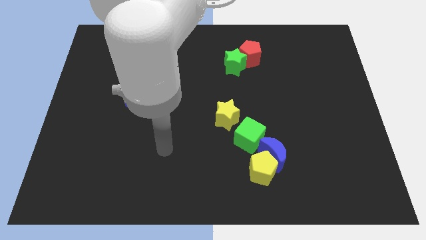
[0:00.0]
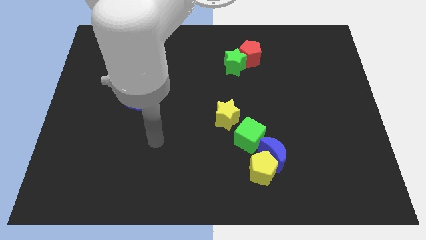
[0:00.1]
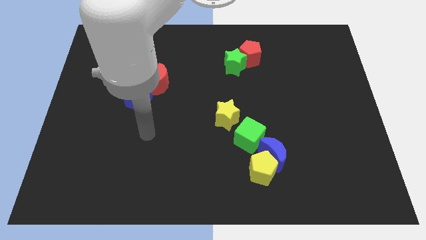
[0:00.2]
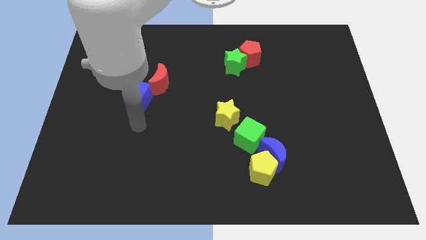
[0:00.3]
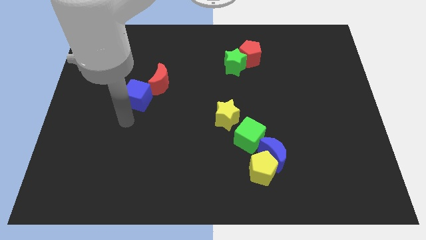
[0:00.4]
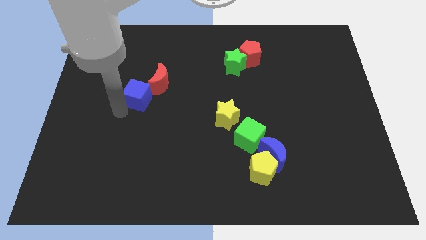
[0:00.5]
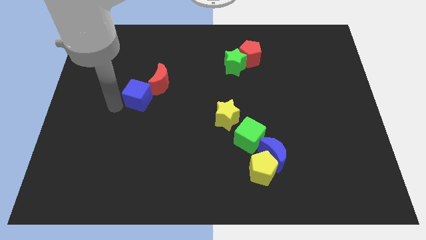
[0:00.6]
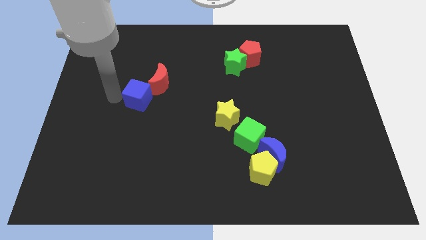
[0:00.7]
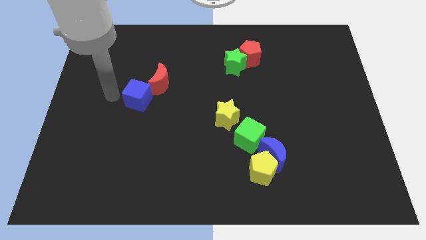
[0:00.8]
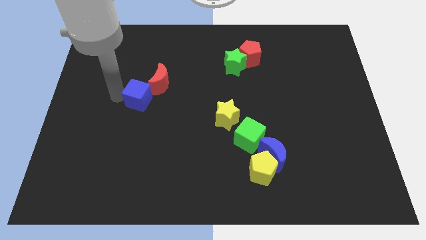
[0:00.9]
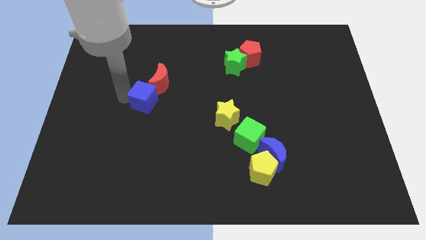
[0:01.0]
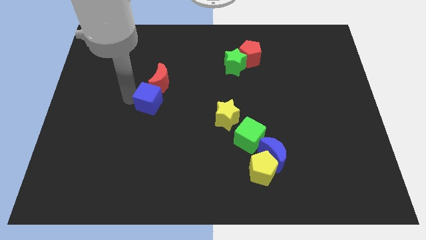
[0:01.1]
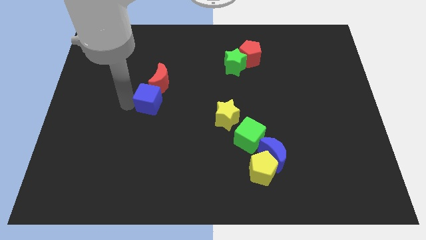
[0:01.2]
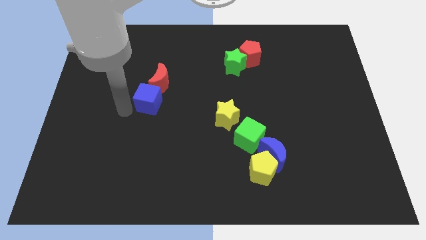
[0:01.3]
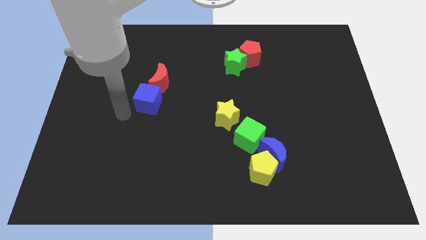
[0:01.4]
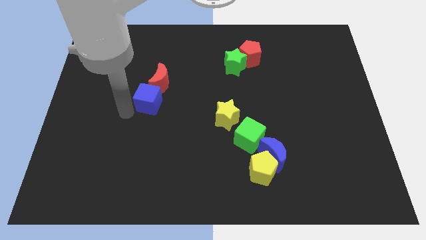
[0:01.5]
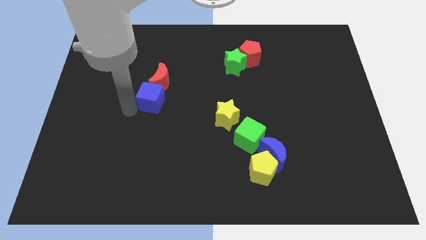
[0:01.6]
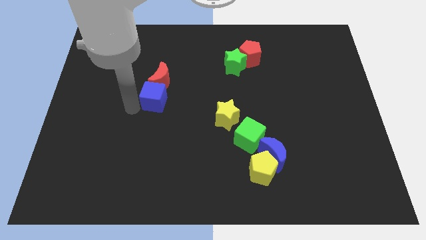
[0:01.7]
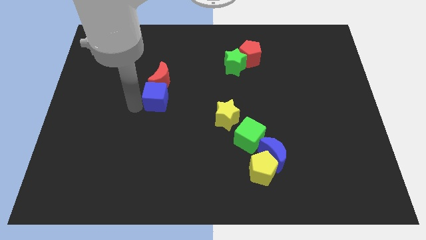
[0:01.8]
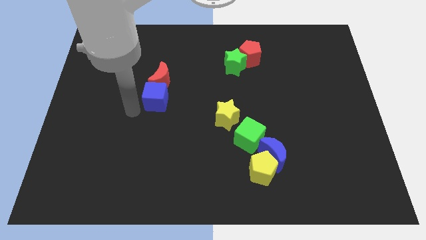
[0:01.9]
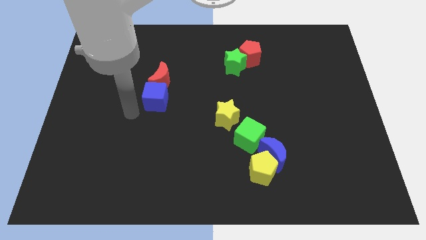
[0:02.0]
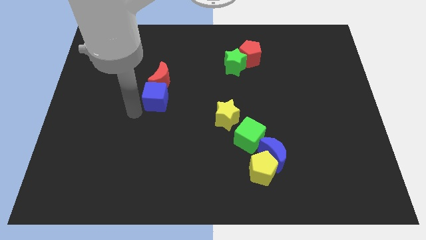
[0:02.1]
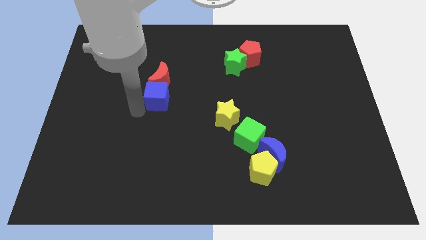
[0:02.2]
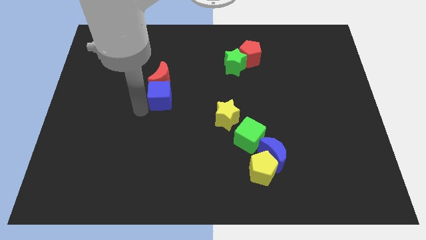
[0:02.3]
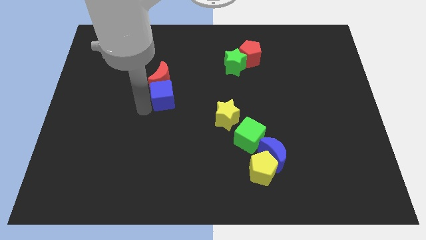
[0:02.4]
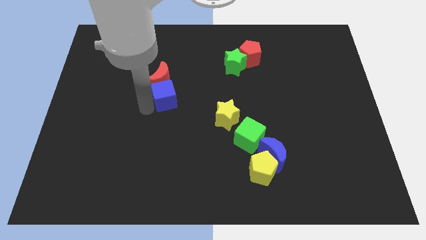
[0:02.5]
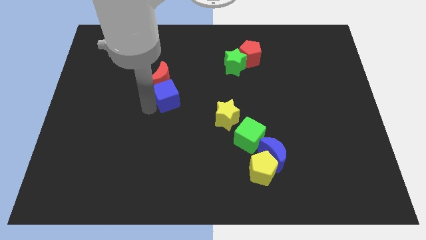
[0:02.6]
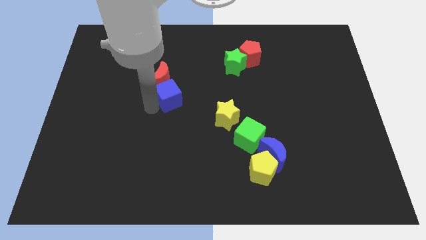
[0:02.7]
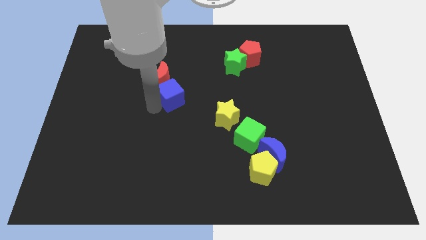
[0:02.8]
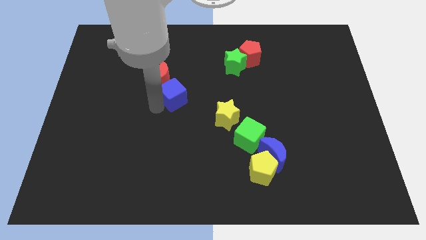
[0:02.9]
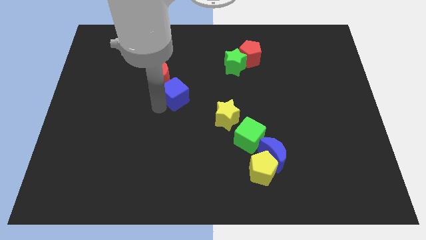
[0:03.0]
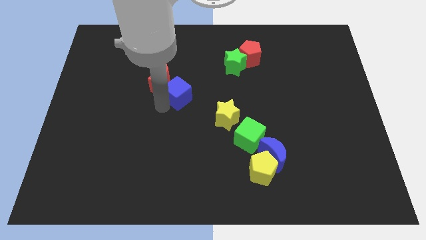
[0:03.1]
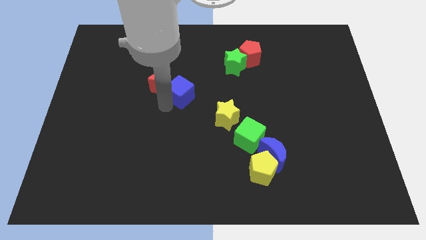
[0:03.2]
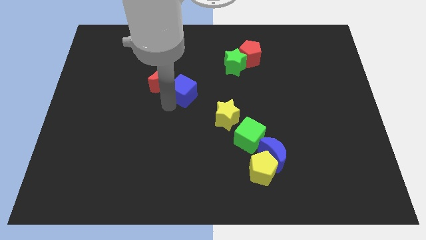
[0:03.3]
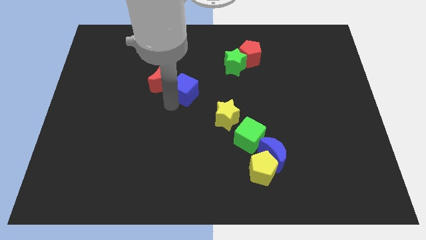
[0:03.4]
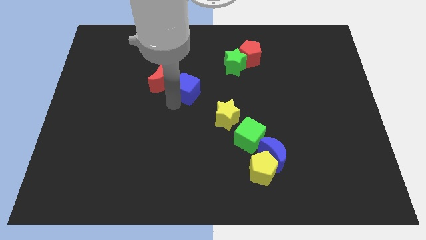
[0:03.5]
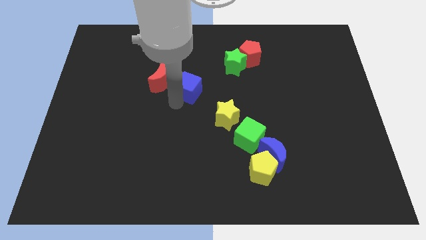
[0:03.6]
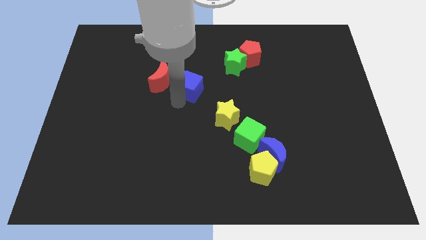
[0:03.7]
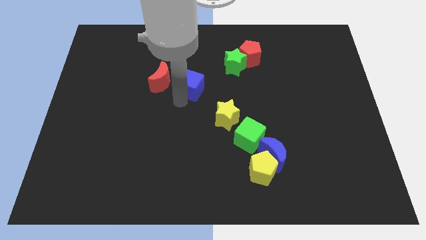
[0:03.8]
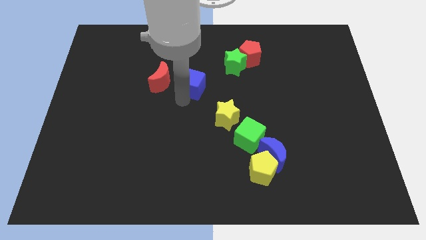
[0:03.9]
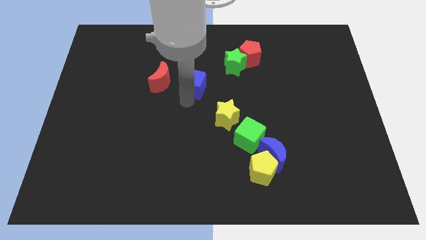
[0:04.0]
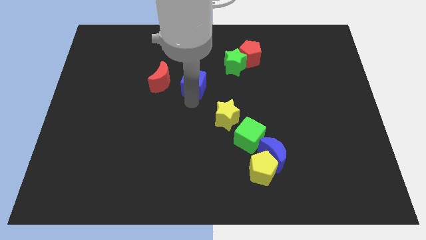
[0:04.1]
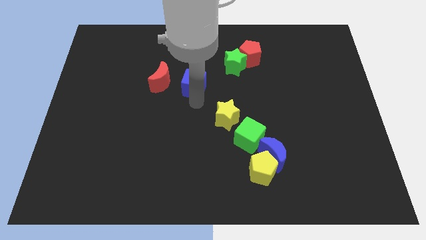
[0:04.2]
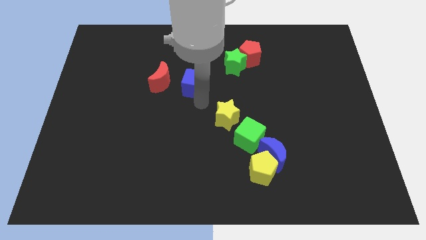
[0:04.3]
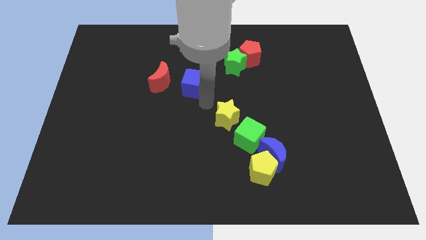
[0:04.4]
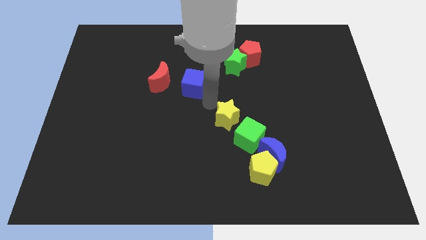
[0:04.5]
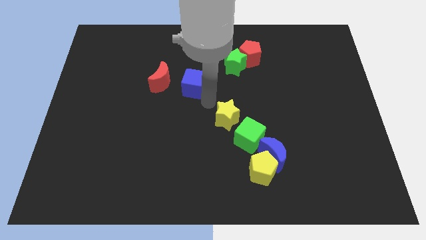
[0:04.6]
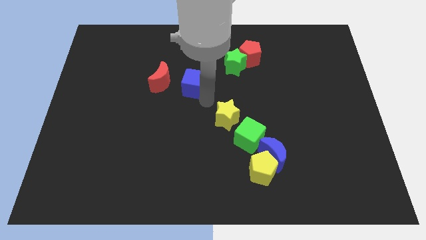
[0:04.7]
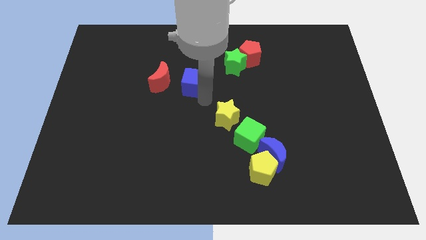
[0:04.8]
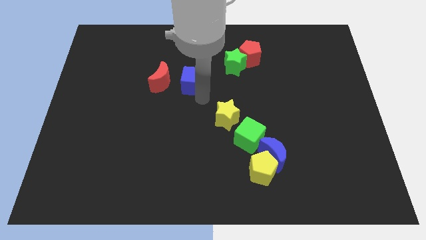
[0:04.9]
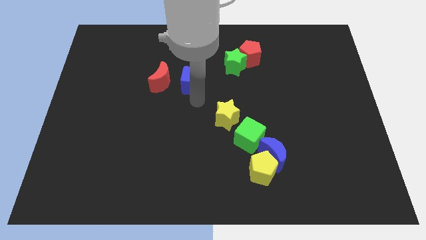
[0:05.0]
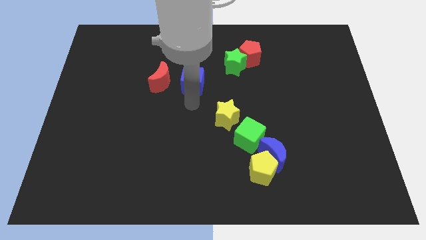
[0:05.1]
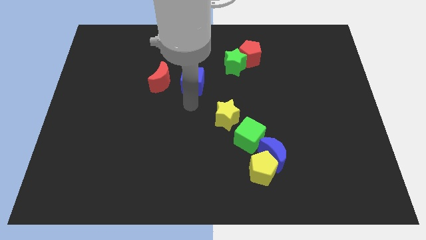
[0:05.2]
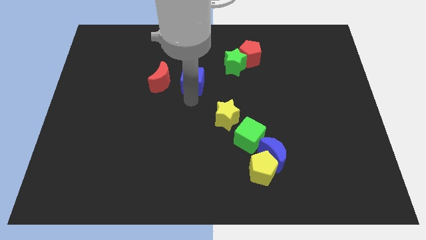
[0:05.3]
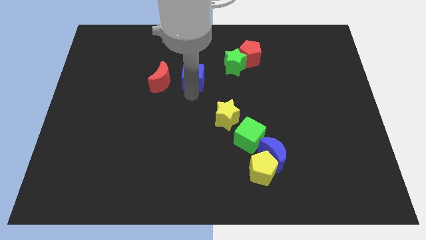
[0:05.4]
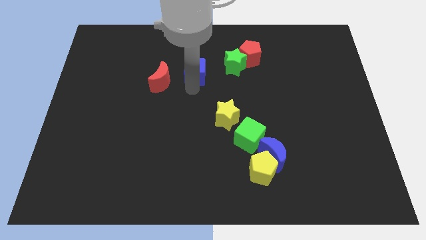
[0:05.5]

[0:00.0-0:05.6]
push the blue cube left of the green star

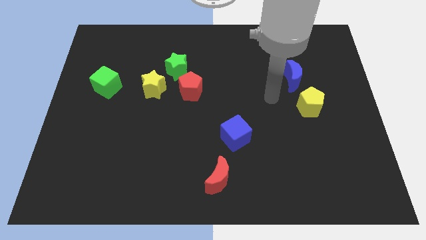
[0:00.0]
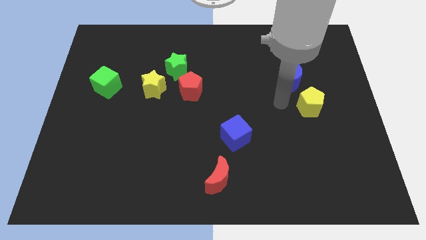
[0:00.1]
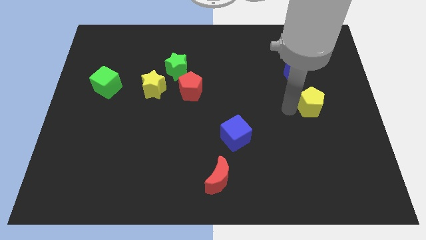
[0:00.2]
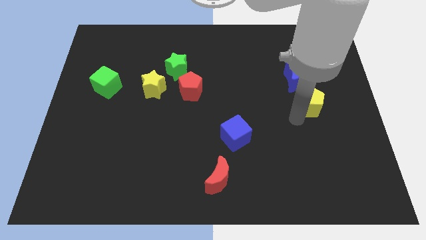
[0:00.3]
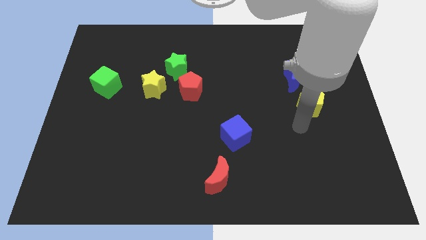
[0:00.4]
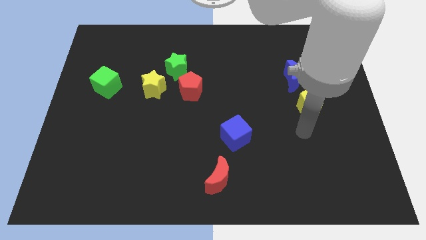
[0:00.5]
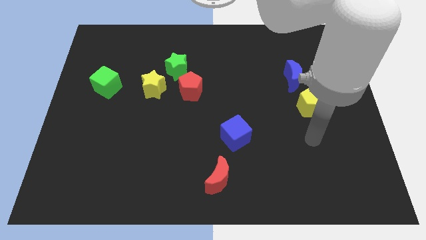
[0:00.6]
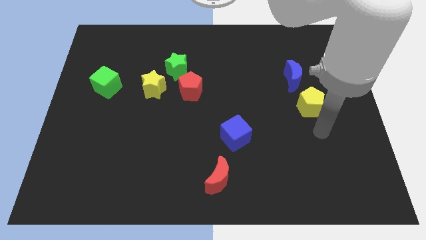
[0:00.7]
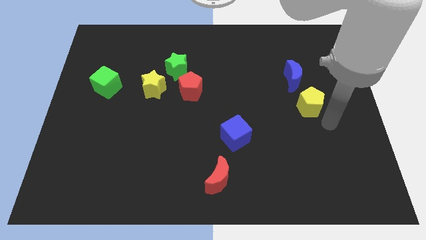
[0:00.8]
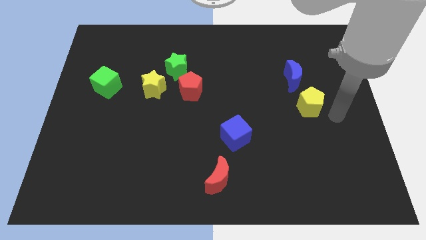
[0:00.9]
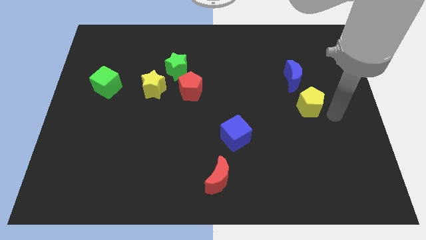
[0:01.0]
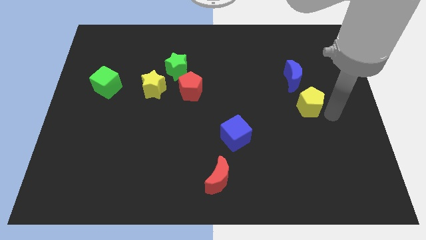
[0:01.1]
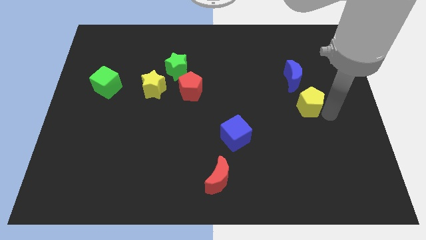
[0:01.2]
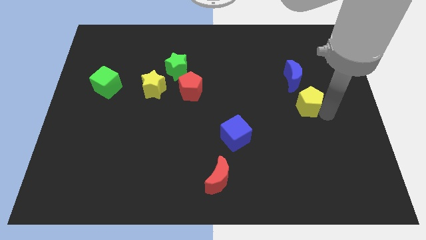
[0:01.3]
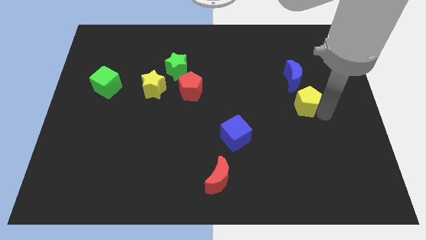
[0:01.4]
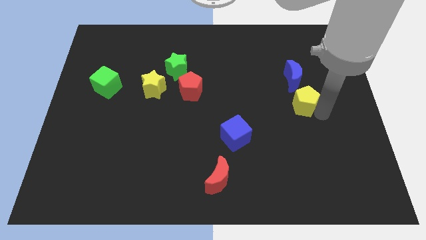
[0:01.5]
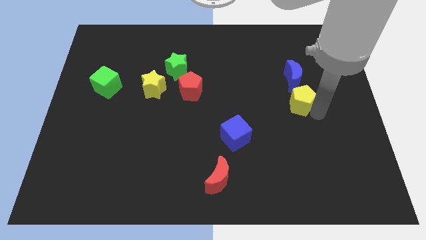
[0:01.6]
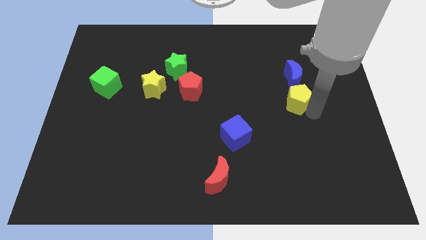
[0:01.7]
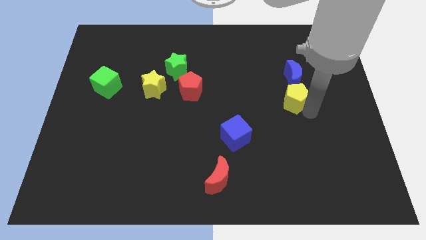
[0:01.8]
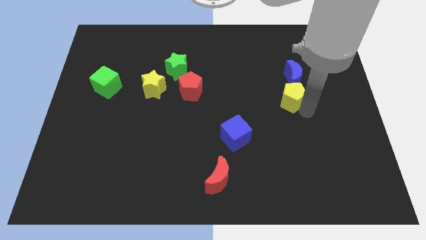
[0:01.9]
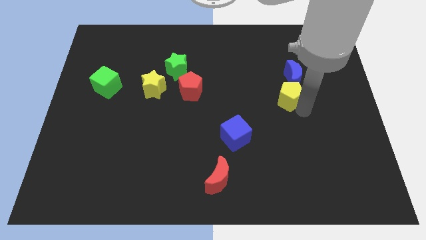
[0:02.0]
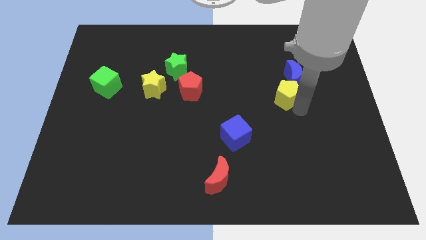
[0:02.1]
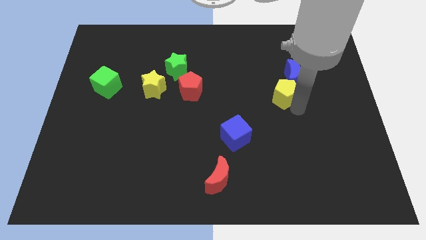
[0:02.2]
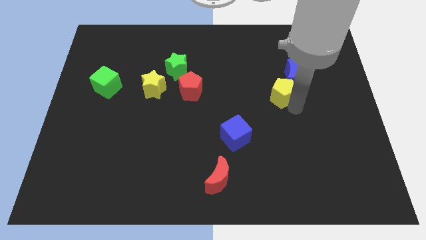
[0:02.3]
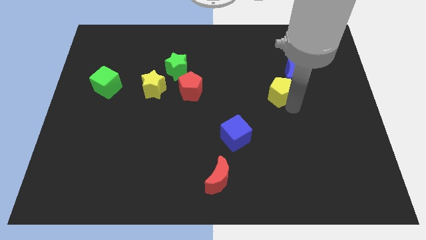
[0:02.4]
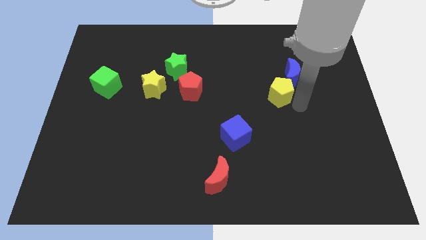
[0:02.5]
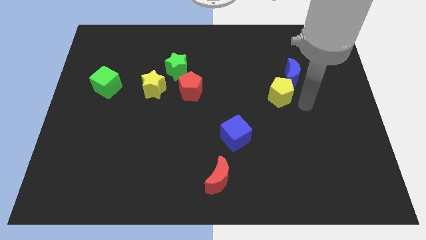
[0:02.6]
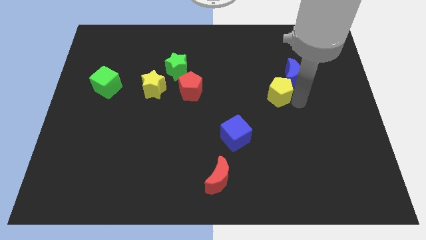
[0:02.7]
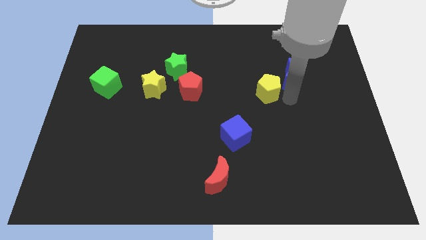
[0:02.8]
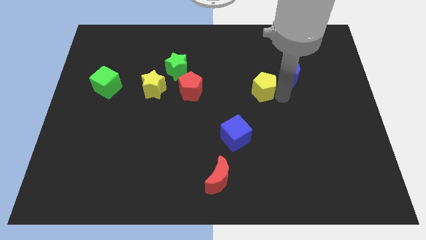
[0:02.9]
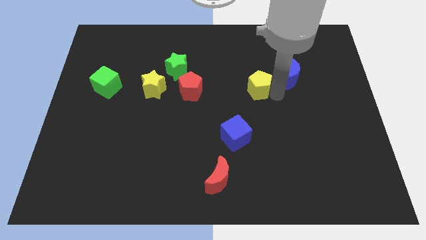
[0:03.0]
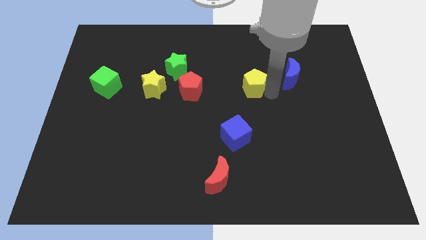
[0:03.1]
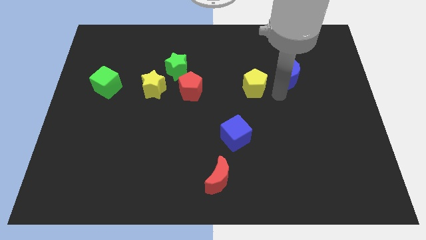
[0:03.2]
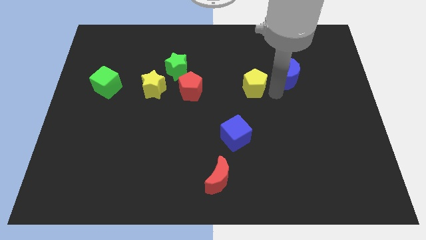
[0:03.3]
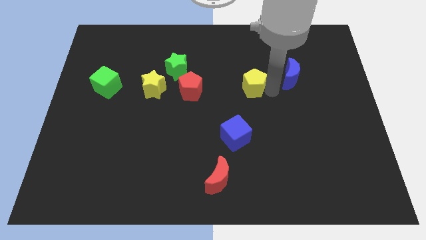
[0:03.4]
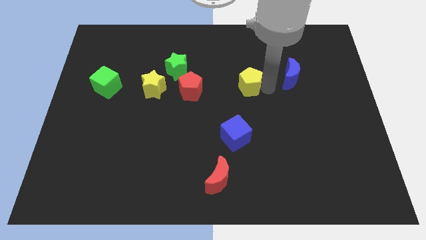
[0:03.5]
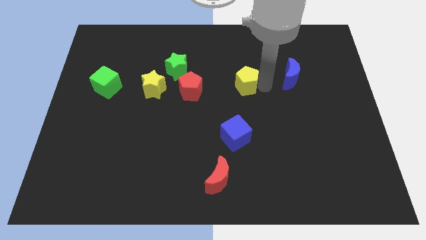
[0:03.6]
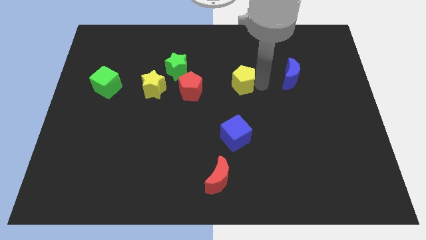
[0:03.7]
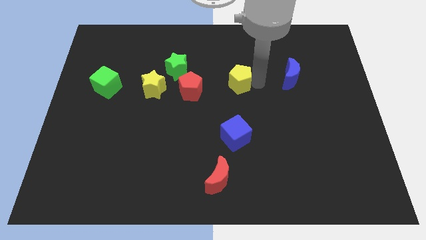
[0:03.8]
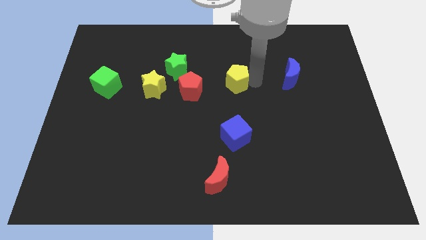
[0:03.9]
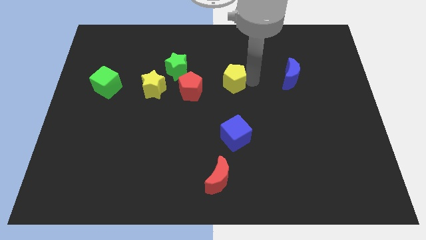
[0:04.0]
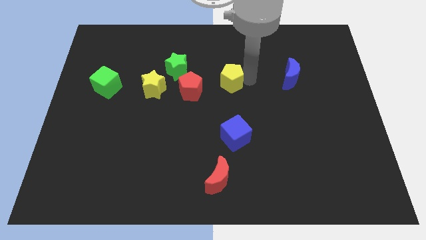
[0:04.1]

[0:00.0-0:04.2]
move the yellow pentagon diagonally up and to the right of the red pentagon
